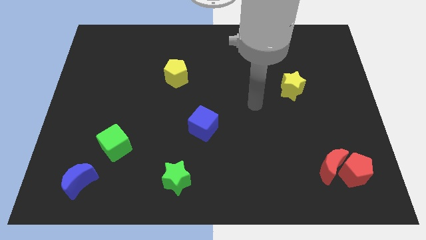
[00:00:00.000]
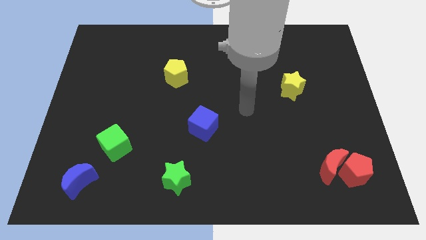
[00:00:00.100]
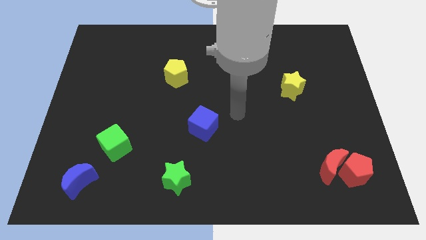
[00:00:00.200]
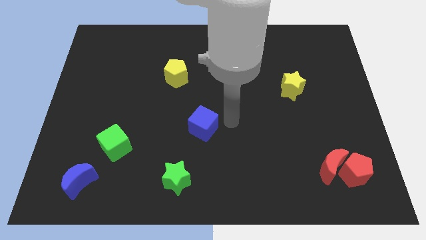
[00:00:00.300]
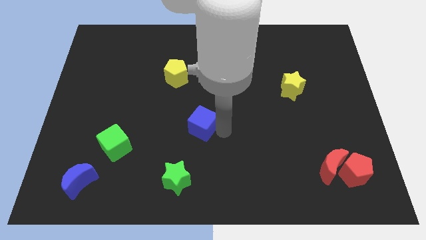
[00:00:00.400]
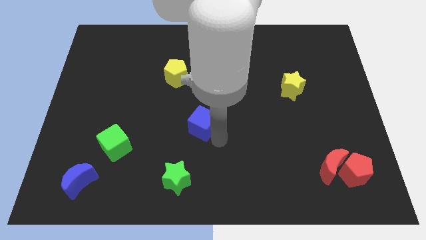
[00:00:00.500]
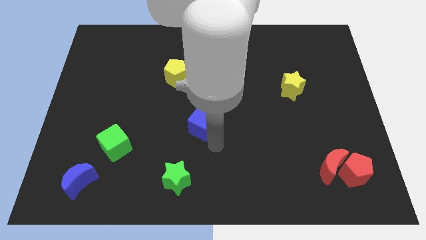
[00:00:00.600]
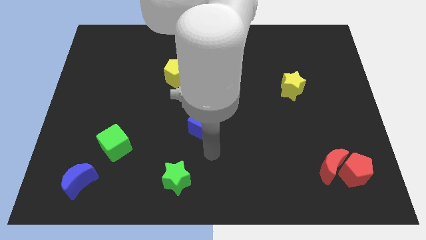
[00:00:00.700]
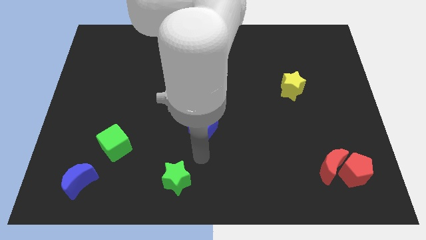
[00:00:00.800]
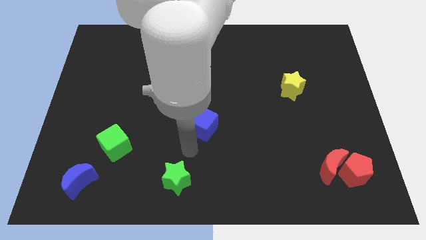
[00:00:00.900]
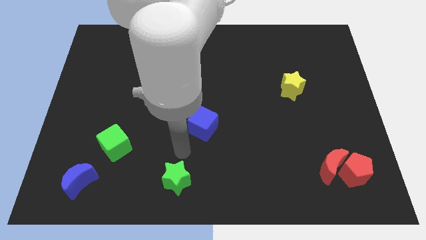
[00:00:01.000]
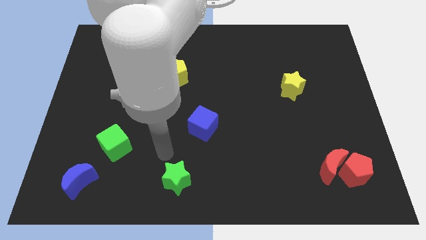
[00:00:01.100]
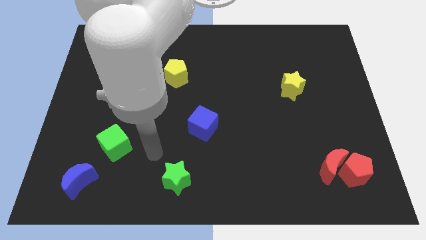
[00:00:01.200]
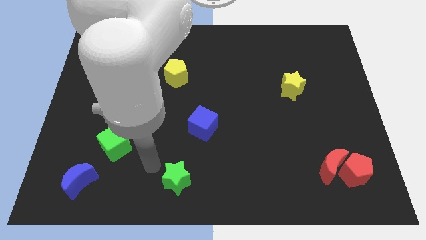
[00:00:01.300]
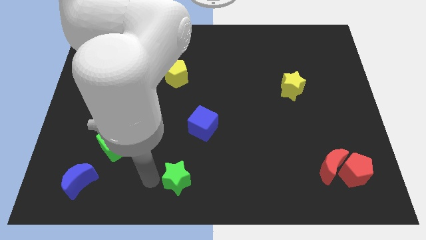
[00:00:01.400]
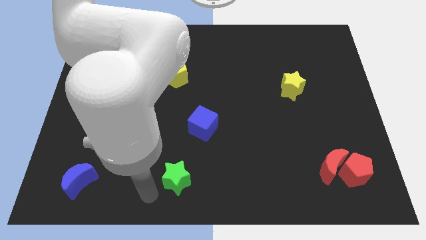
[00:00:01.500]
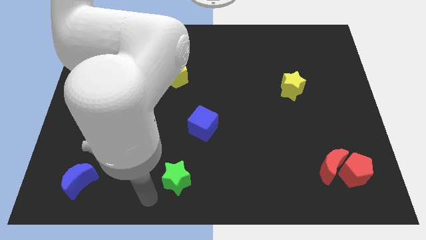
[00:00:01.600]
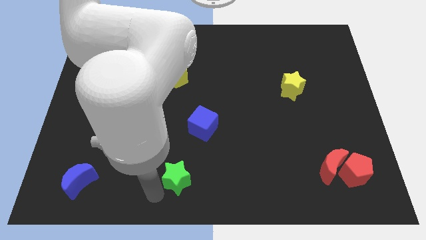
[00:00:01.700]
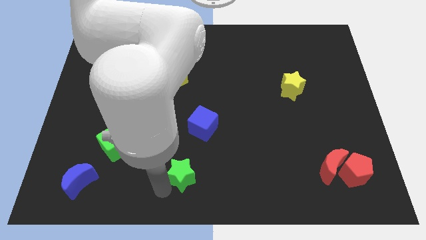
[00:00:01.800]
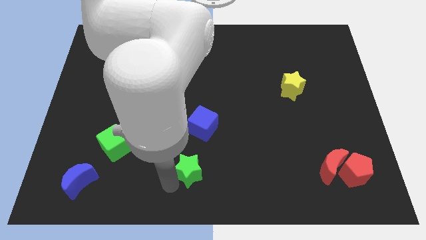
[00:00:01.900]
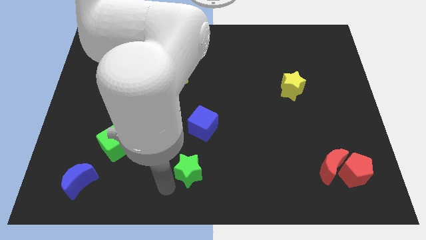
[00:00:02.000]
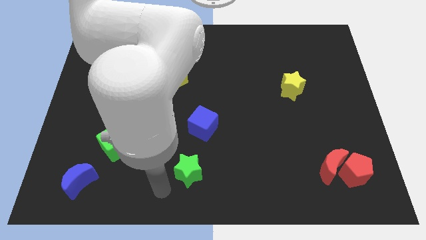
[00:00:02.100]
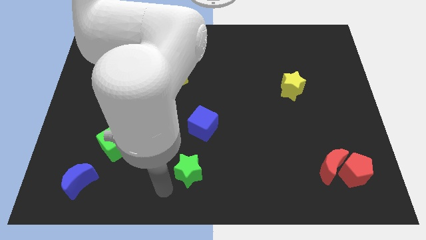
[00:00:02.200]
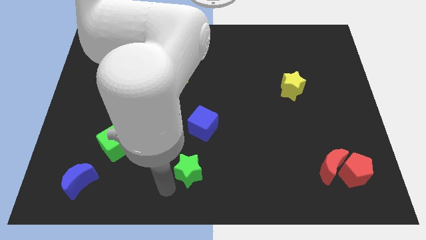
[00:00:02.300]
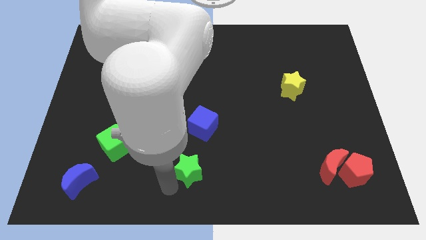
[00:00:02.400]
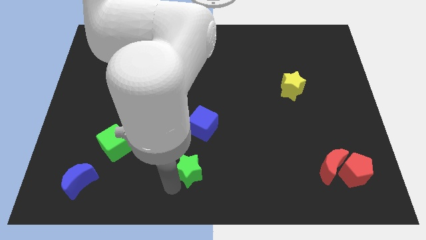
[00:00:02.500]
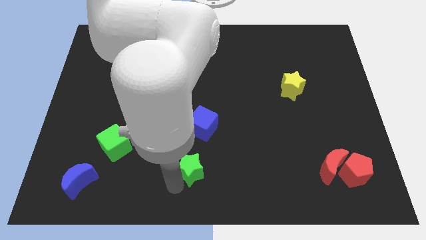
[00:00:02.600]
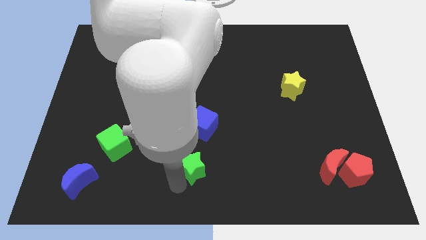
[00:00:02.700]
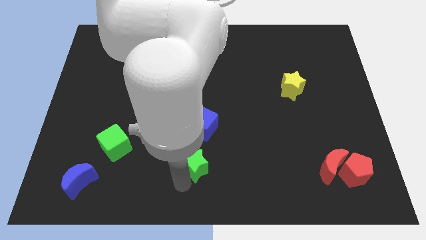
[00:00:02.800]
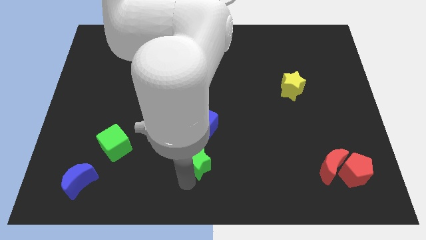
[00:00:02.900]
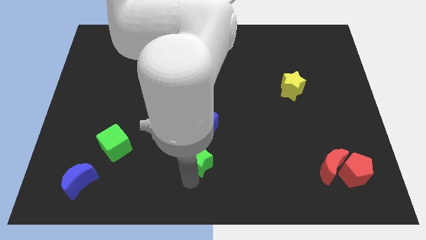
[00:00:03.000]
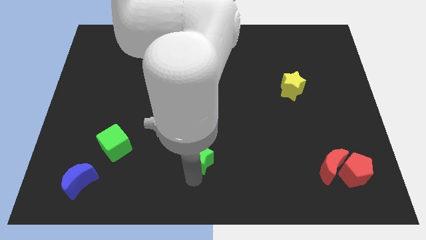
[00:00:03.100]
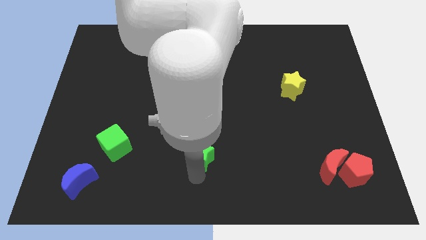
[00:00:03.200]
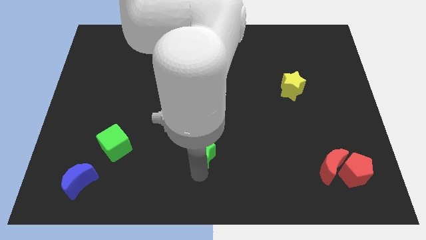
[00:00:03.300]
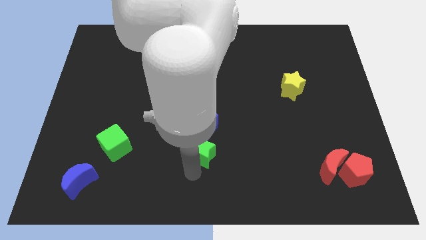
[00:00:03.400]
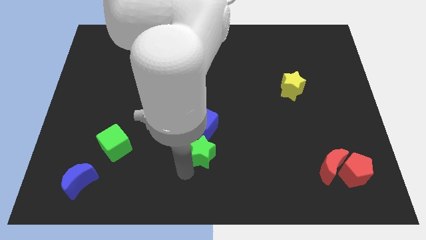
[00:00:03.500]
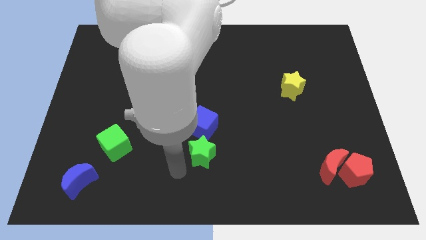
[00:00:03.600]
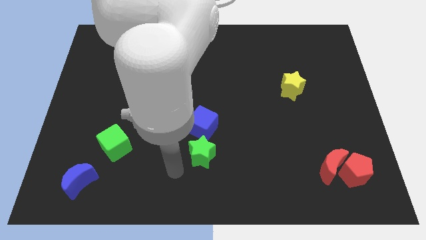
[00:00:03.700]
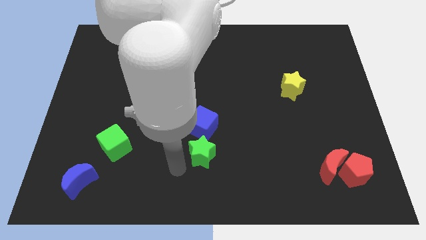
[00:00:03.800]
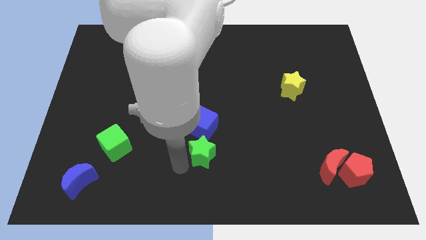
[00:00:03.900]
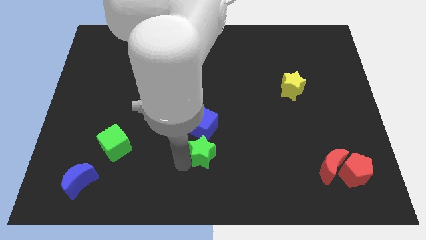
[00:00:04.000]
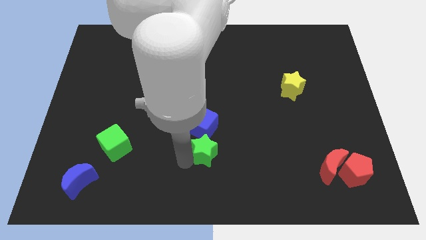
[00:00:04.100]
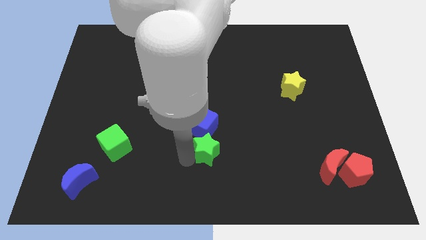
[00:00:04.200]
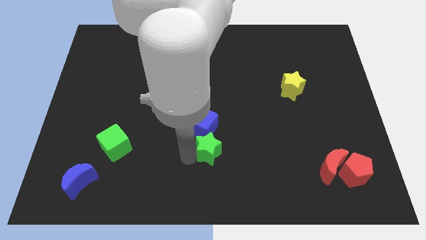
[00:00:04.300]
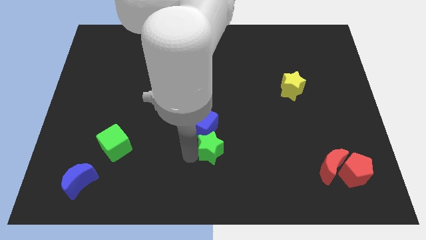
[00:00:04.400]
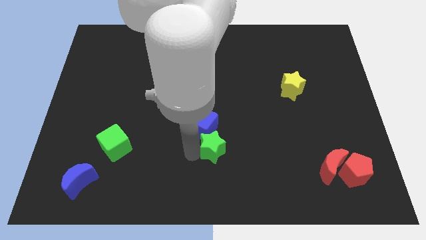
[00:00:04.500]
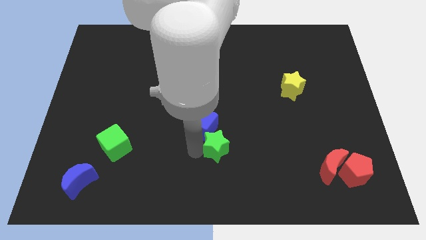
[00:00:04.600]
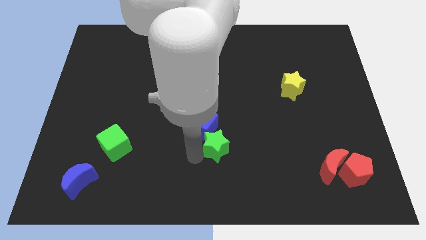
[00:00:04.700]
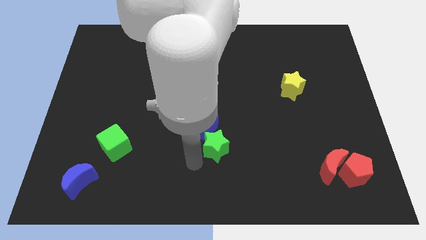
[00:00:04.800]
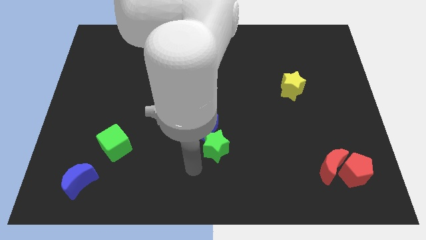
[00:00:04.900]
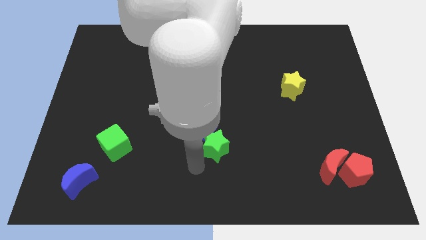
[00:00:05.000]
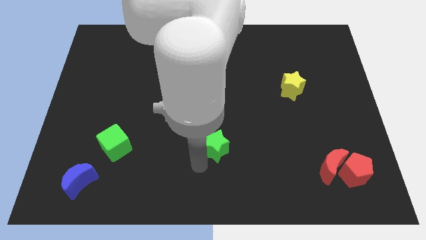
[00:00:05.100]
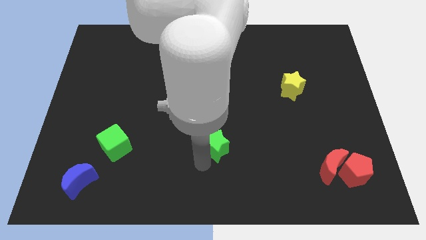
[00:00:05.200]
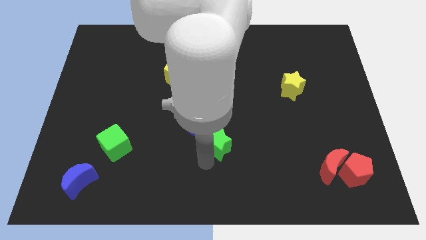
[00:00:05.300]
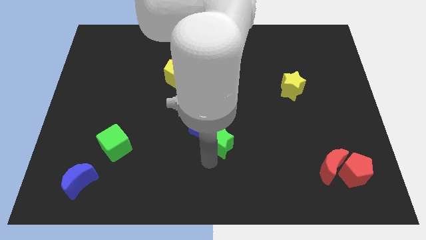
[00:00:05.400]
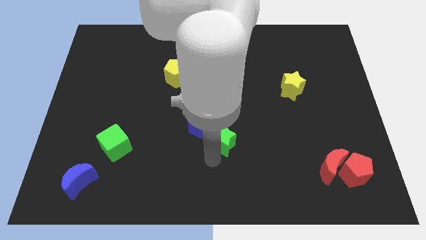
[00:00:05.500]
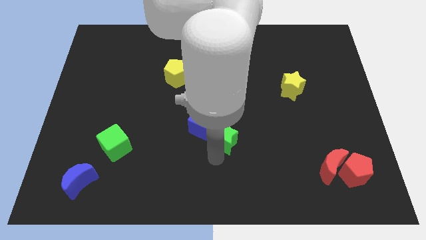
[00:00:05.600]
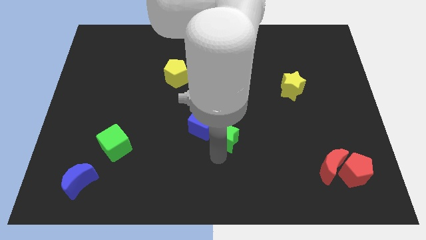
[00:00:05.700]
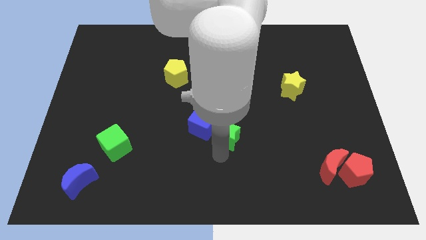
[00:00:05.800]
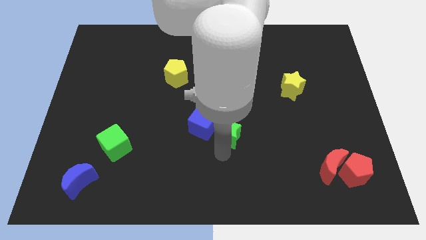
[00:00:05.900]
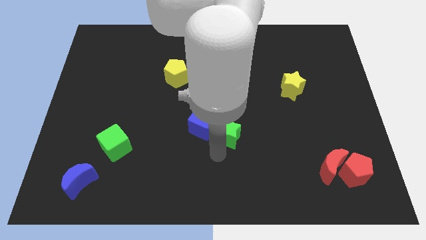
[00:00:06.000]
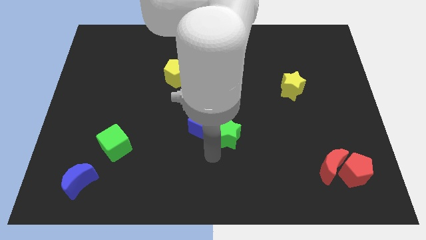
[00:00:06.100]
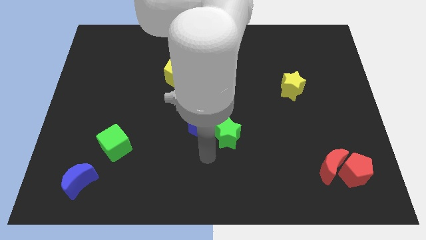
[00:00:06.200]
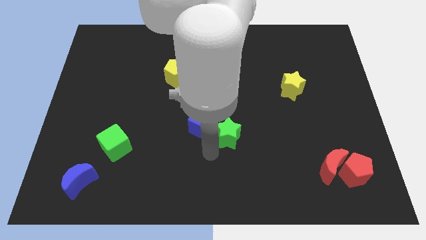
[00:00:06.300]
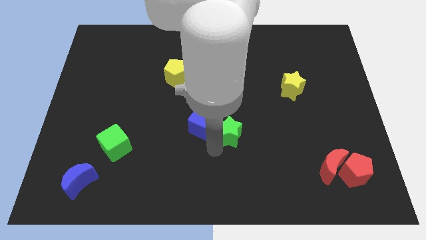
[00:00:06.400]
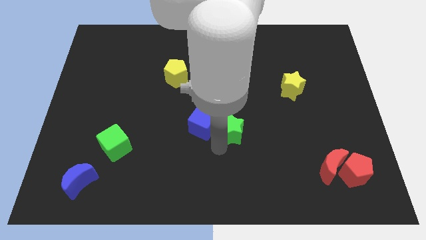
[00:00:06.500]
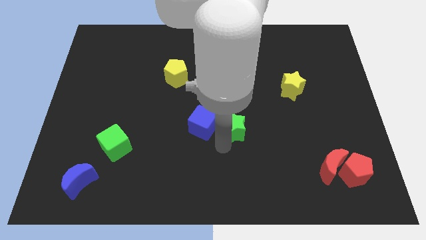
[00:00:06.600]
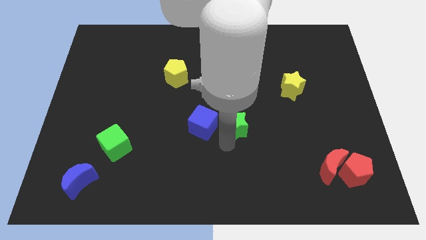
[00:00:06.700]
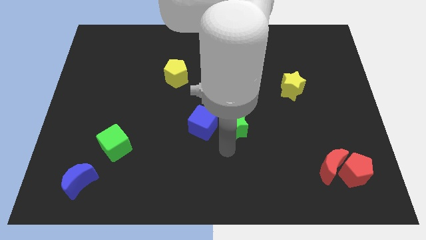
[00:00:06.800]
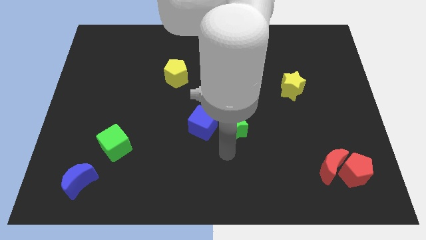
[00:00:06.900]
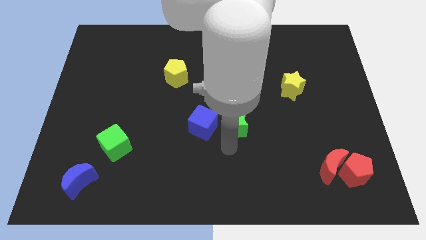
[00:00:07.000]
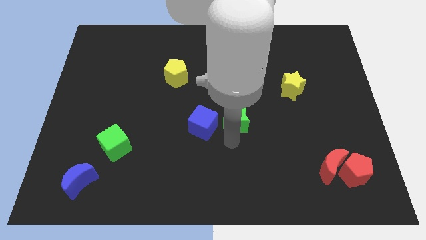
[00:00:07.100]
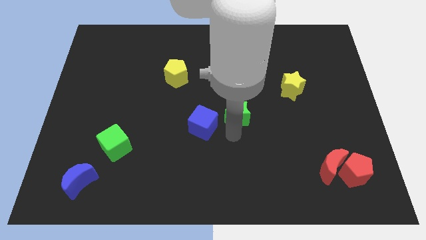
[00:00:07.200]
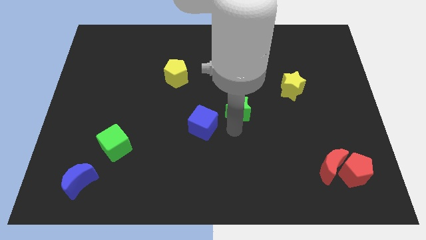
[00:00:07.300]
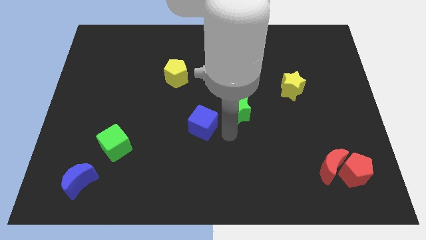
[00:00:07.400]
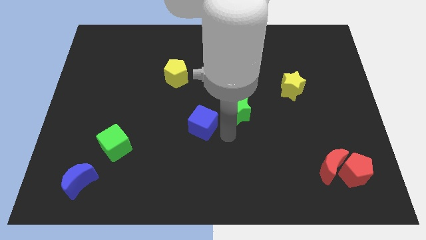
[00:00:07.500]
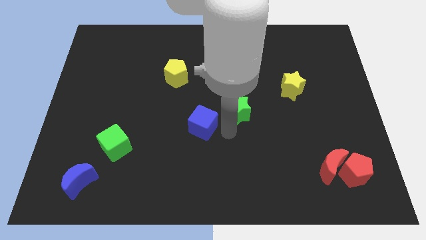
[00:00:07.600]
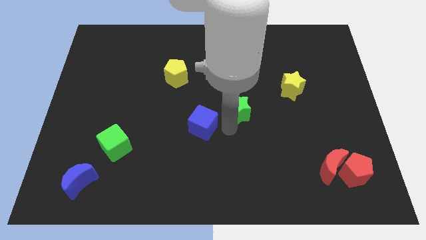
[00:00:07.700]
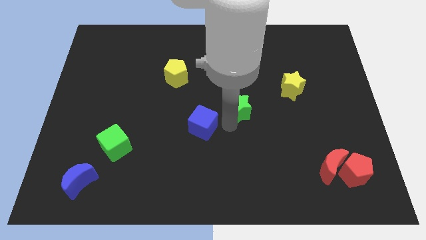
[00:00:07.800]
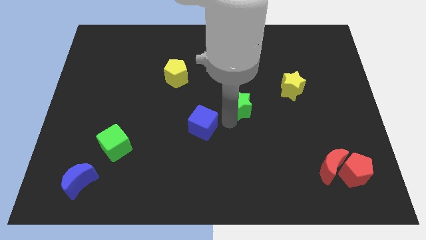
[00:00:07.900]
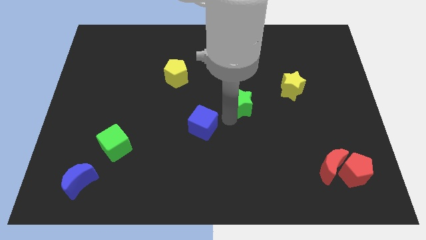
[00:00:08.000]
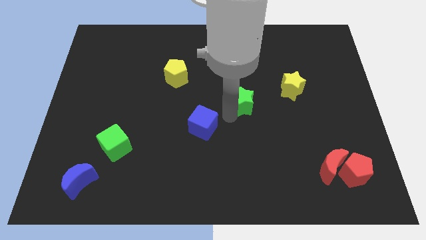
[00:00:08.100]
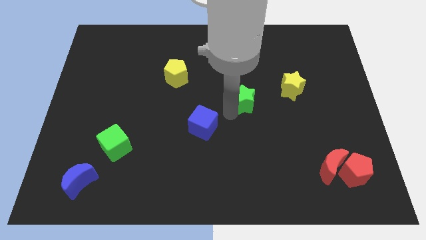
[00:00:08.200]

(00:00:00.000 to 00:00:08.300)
push the green star to the left side of the yellow star
